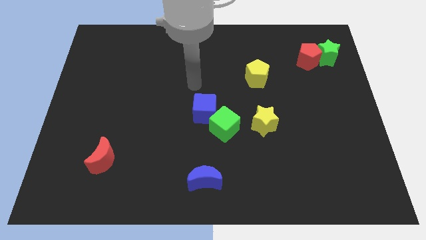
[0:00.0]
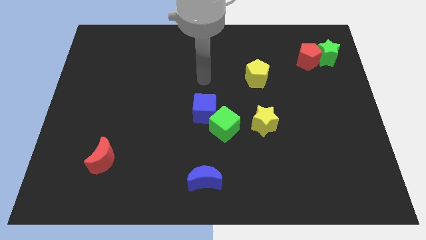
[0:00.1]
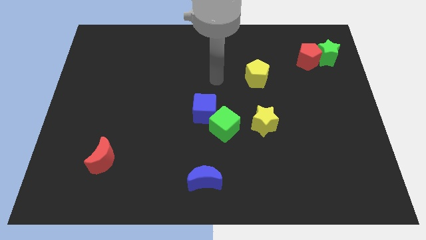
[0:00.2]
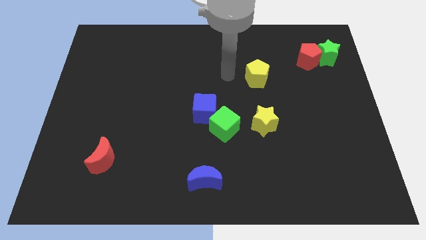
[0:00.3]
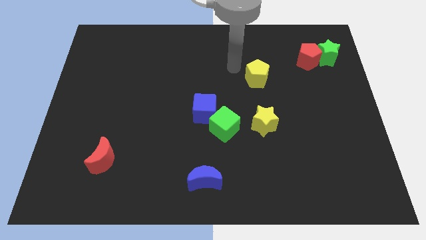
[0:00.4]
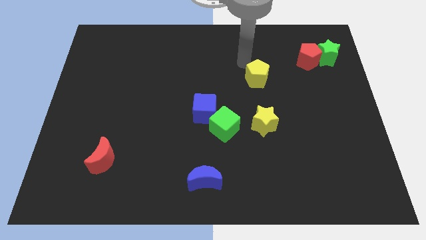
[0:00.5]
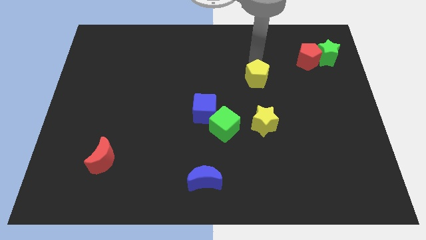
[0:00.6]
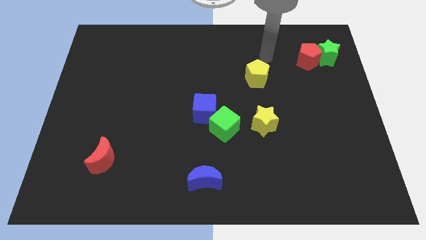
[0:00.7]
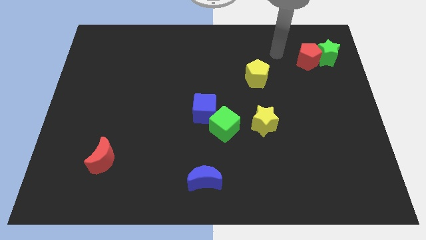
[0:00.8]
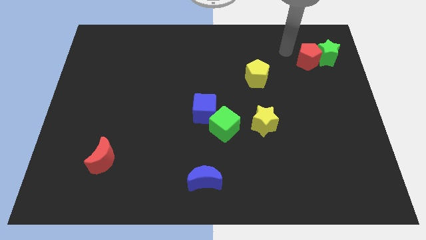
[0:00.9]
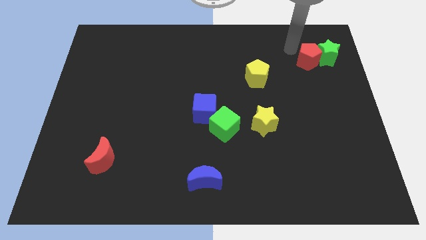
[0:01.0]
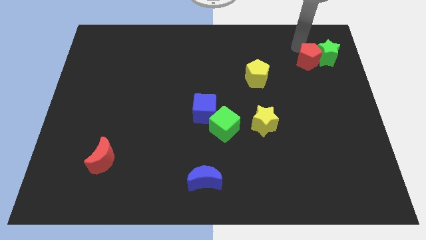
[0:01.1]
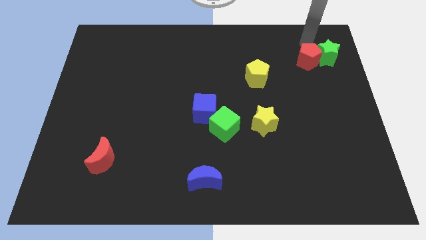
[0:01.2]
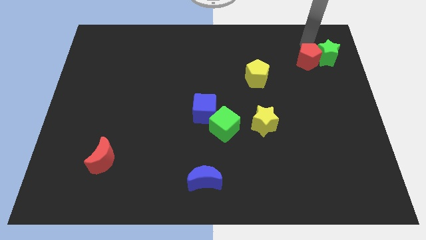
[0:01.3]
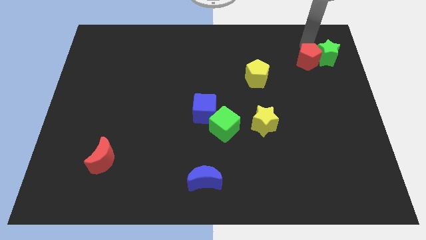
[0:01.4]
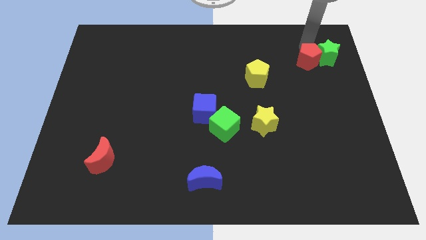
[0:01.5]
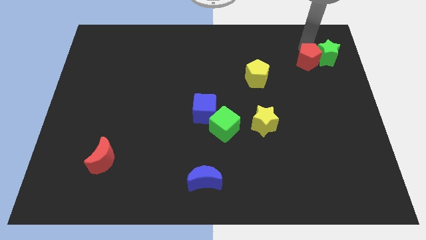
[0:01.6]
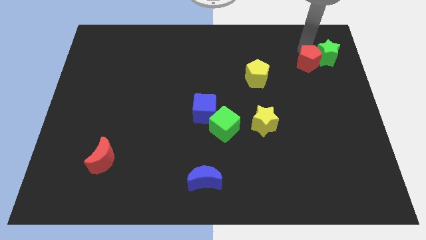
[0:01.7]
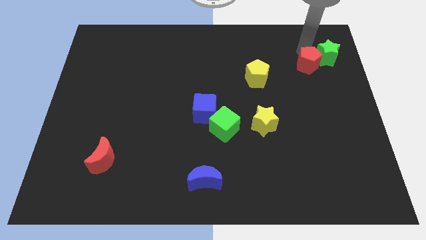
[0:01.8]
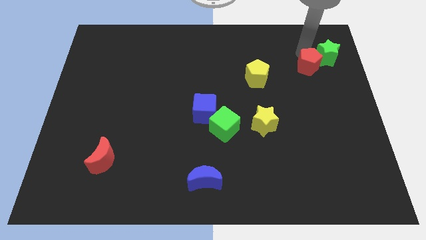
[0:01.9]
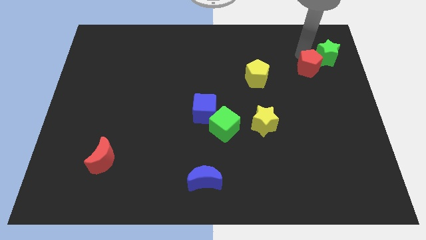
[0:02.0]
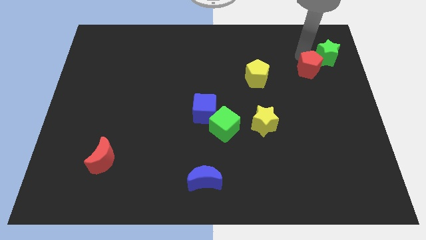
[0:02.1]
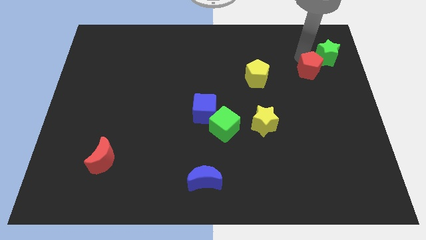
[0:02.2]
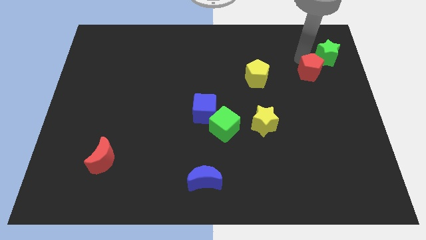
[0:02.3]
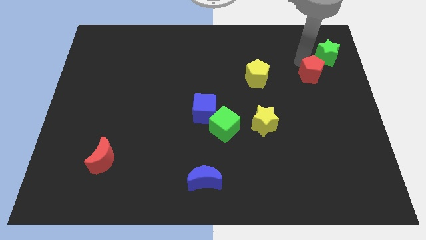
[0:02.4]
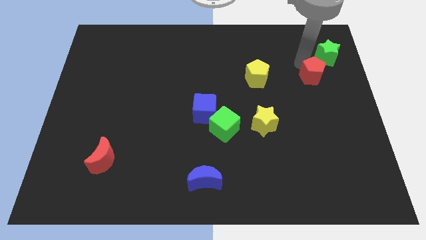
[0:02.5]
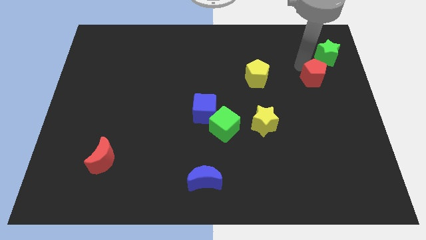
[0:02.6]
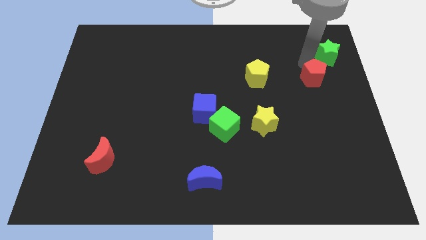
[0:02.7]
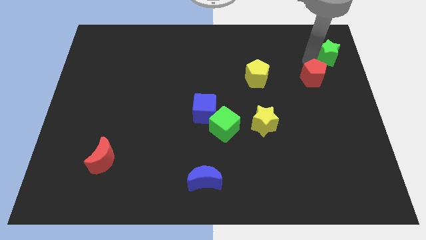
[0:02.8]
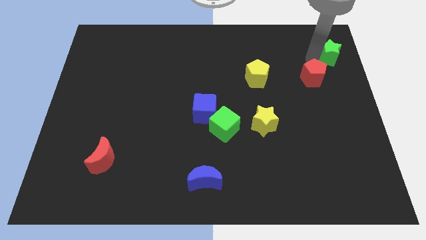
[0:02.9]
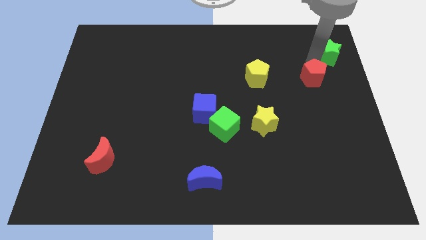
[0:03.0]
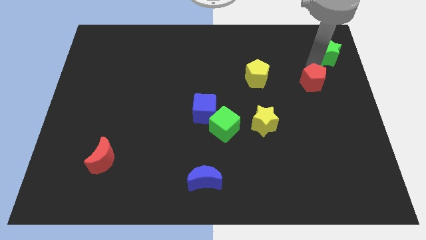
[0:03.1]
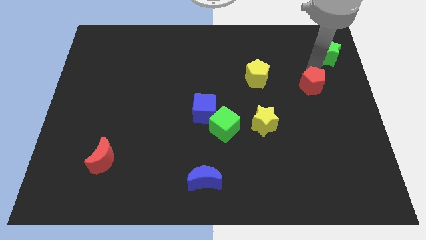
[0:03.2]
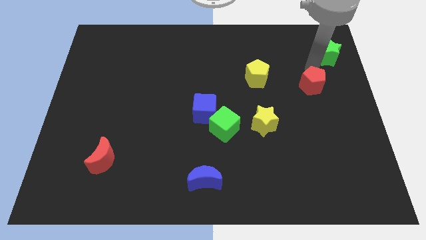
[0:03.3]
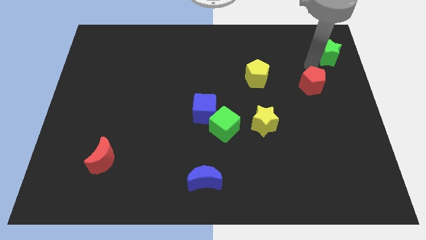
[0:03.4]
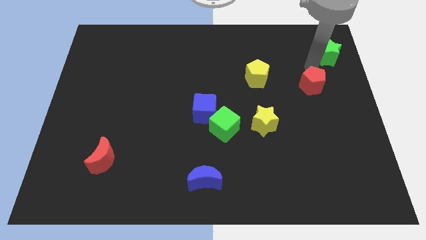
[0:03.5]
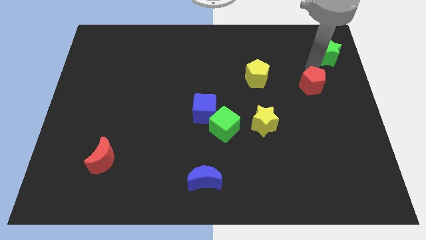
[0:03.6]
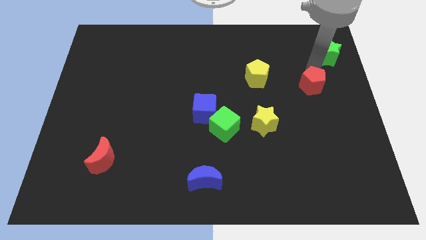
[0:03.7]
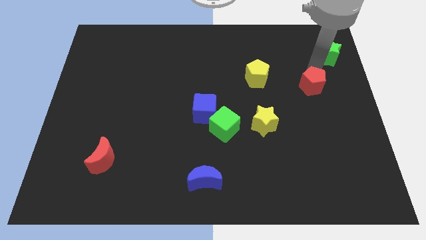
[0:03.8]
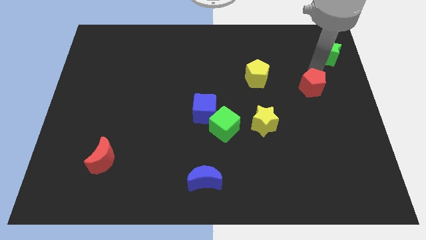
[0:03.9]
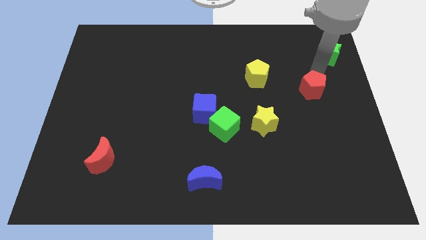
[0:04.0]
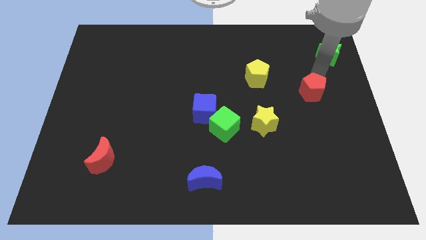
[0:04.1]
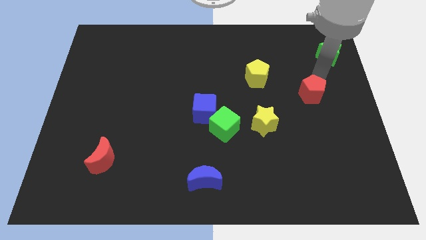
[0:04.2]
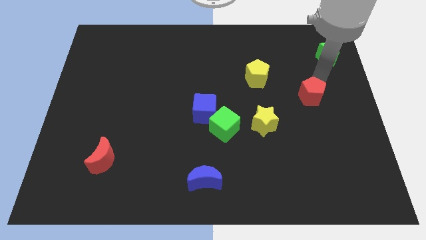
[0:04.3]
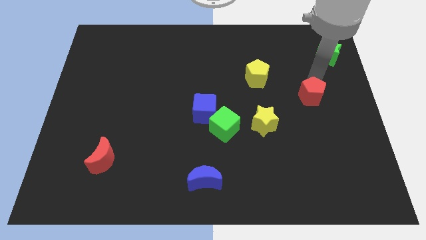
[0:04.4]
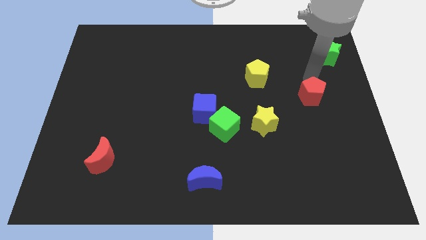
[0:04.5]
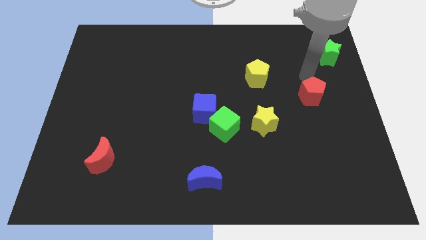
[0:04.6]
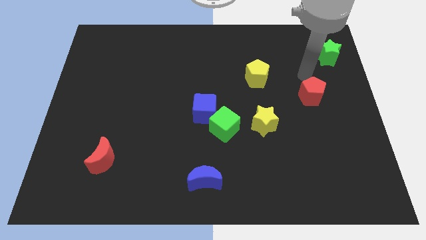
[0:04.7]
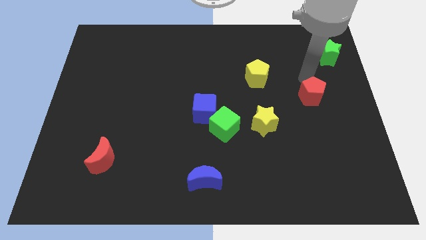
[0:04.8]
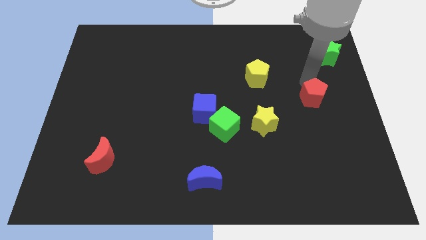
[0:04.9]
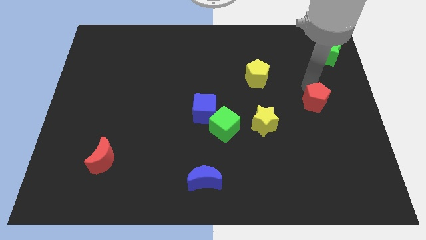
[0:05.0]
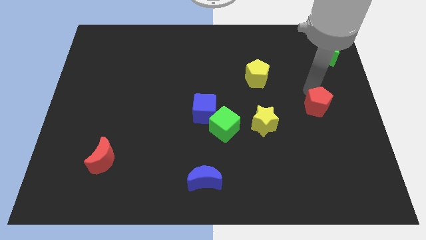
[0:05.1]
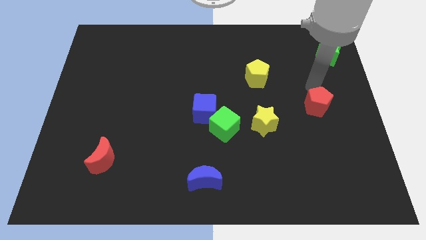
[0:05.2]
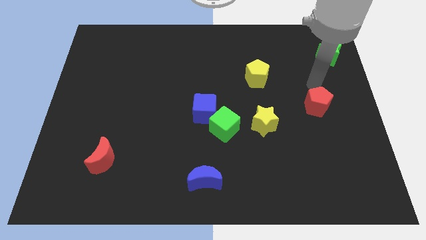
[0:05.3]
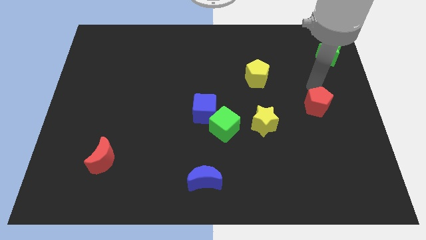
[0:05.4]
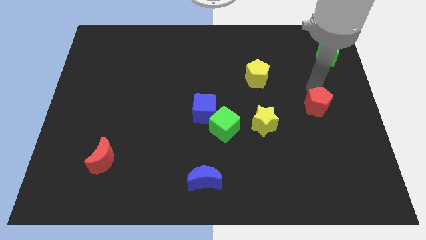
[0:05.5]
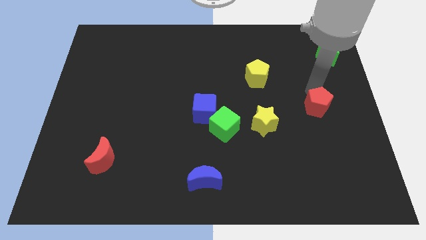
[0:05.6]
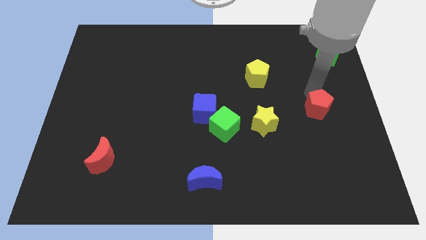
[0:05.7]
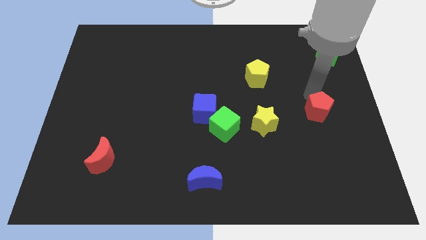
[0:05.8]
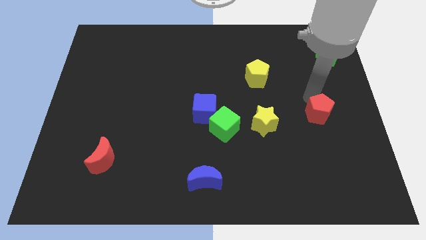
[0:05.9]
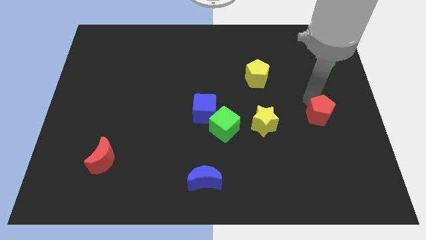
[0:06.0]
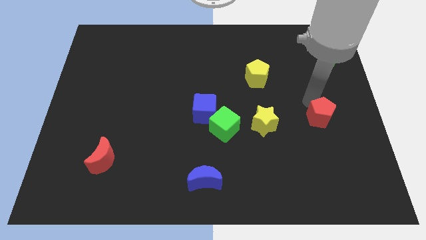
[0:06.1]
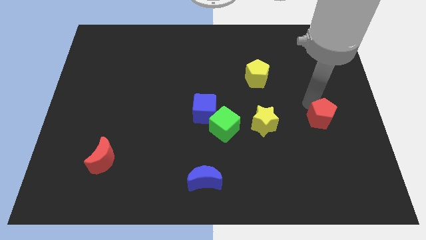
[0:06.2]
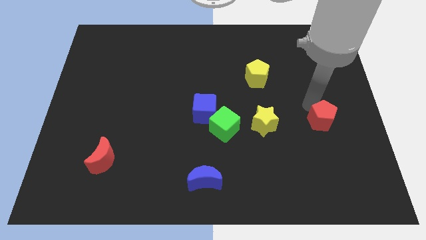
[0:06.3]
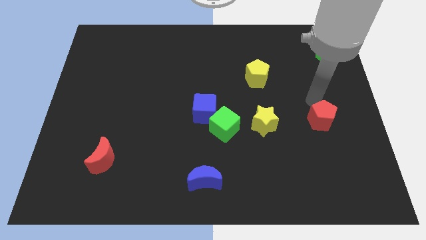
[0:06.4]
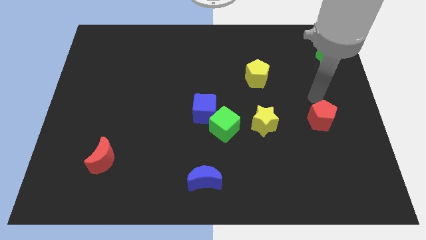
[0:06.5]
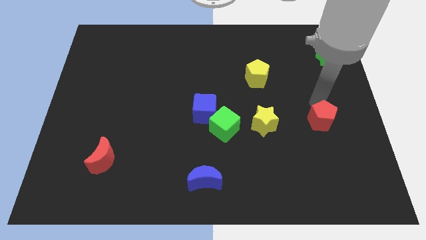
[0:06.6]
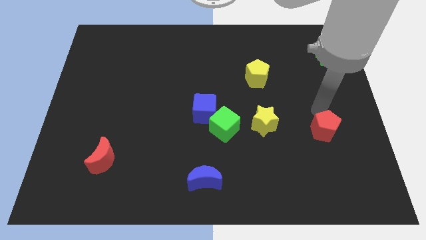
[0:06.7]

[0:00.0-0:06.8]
move the red pentagon downwards

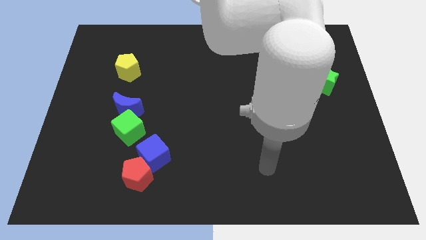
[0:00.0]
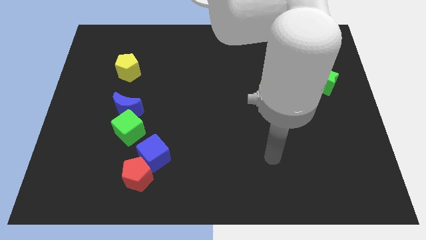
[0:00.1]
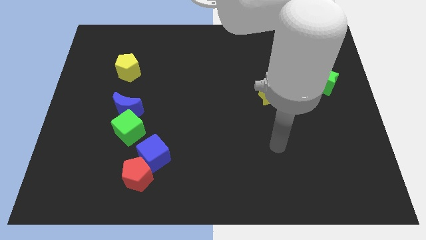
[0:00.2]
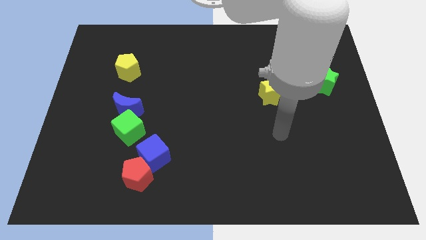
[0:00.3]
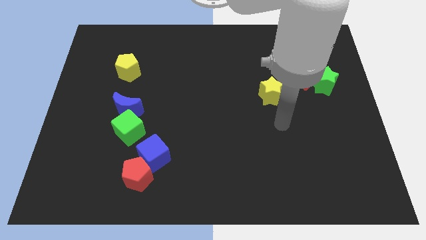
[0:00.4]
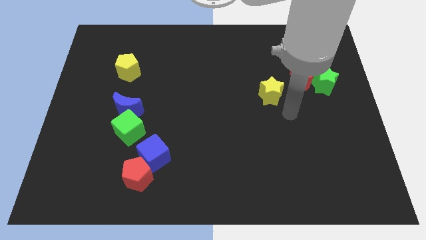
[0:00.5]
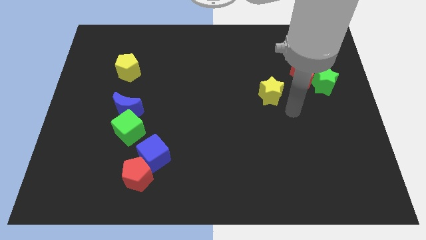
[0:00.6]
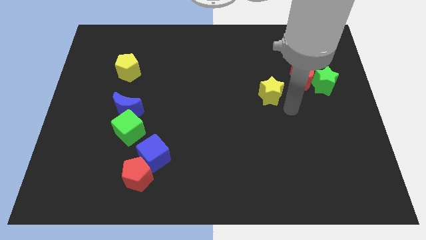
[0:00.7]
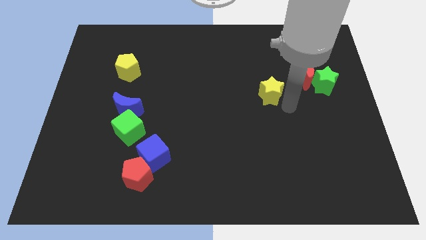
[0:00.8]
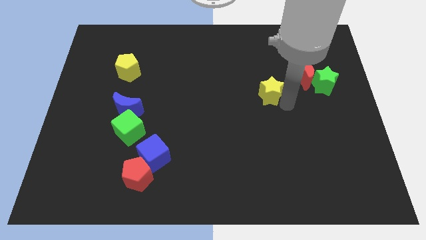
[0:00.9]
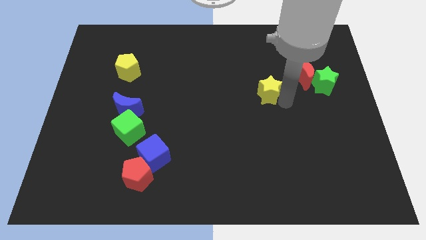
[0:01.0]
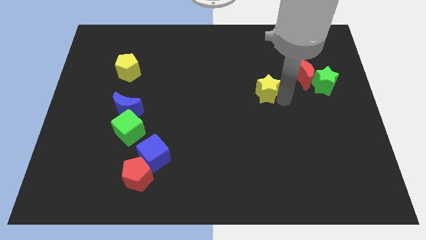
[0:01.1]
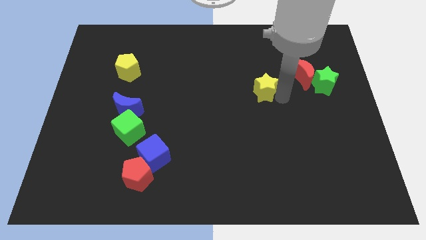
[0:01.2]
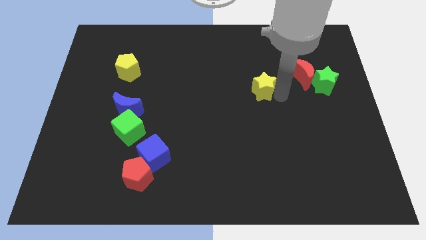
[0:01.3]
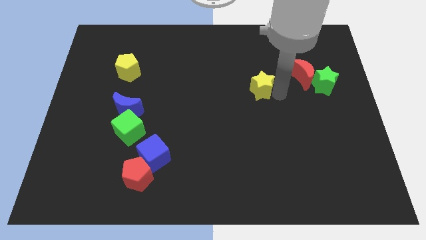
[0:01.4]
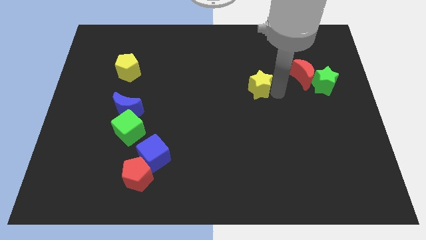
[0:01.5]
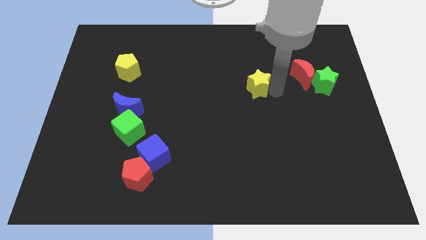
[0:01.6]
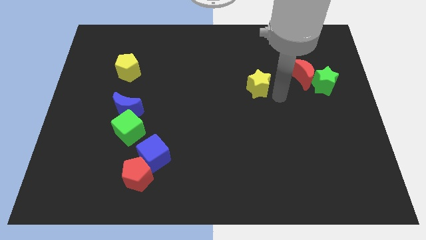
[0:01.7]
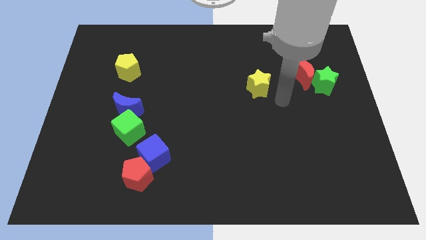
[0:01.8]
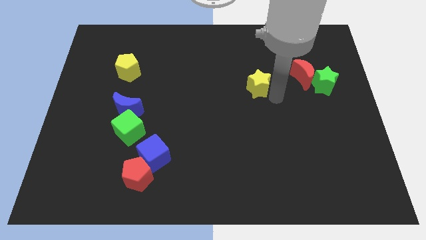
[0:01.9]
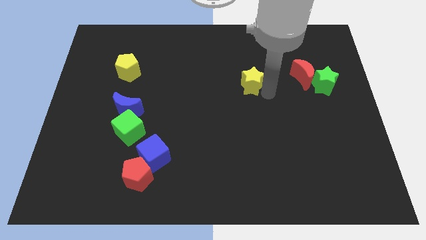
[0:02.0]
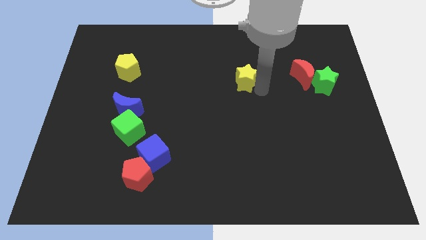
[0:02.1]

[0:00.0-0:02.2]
move the yellow star upwards and to the left diagonally a bit
